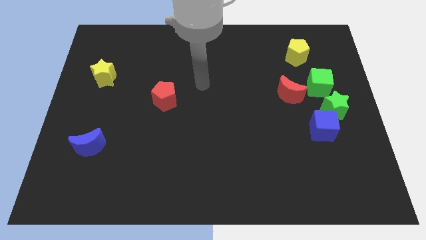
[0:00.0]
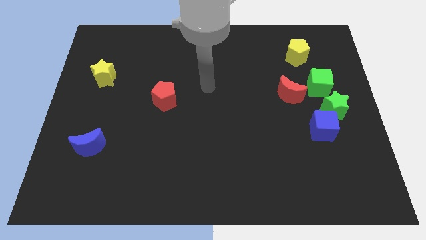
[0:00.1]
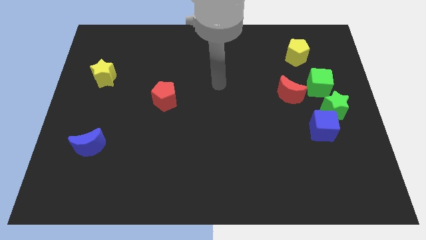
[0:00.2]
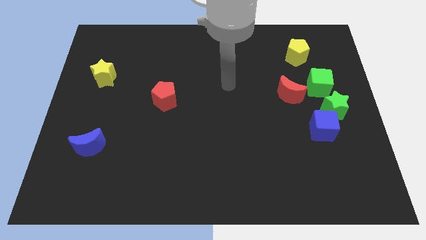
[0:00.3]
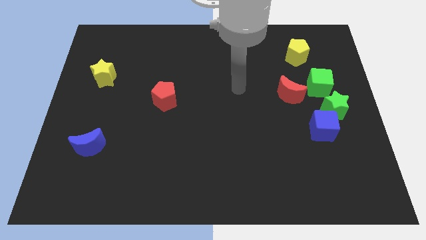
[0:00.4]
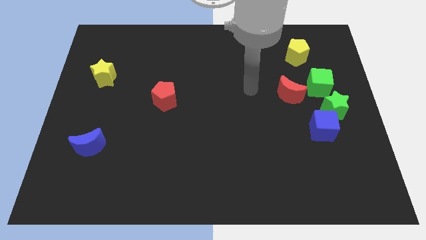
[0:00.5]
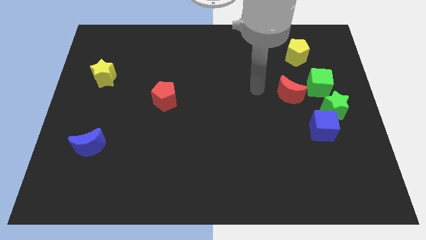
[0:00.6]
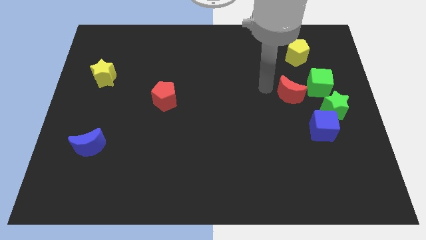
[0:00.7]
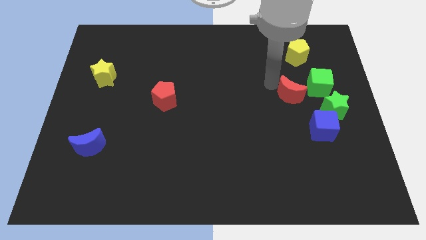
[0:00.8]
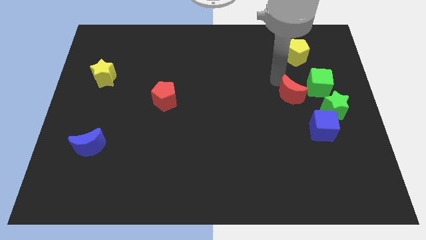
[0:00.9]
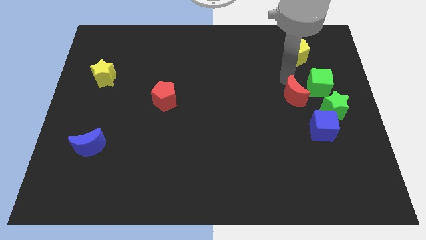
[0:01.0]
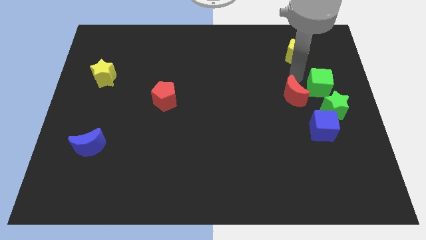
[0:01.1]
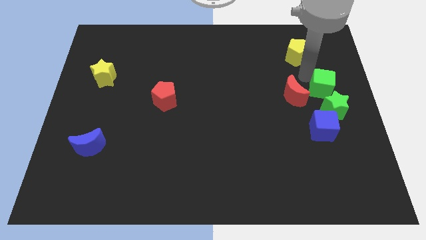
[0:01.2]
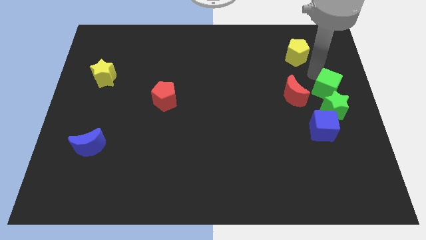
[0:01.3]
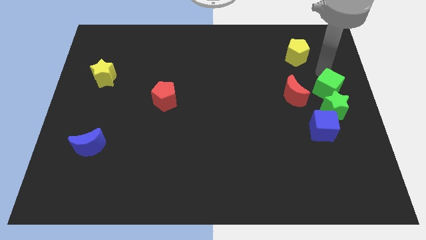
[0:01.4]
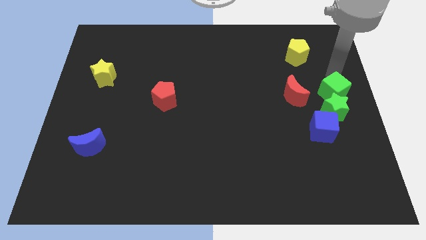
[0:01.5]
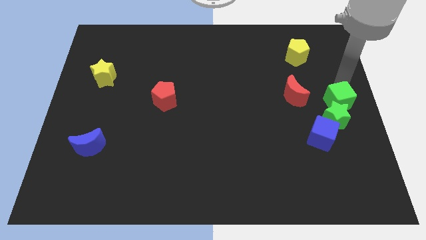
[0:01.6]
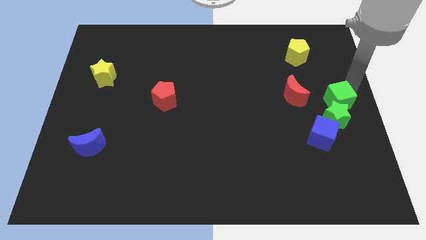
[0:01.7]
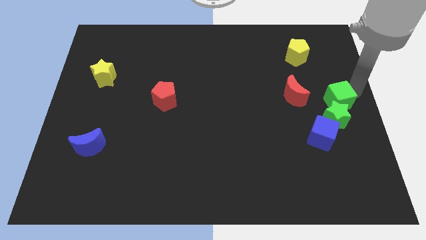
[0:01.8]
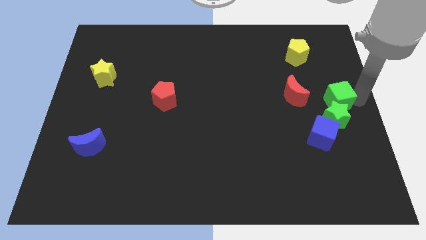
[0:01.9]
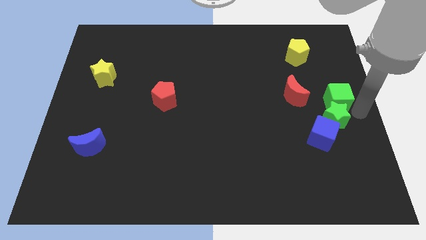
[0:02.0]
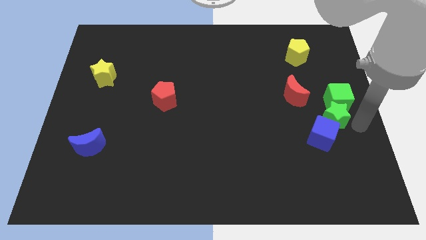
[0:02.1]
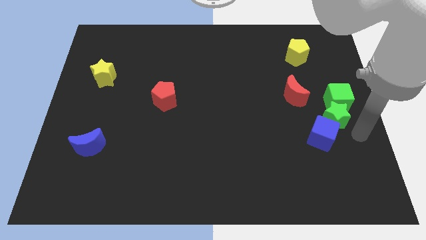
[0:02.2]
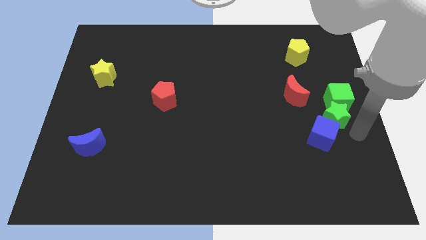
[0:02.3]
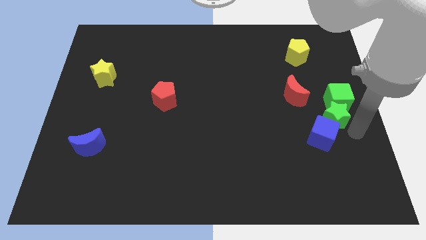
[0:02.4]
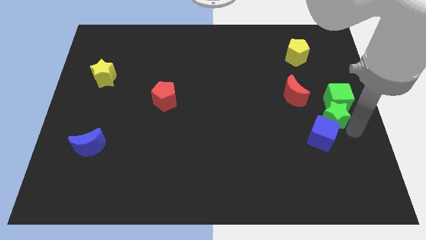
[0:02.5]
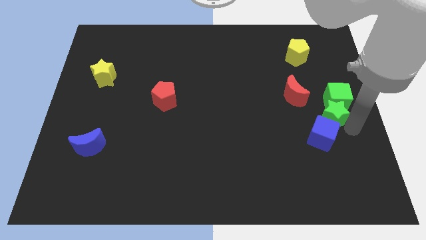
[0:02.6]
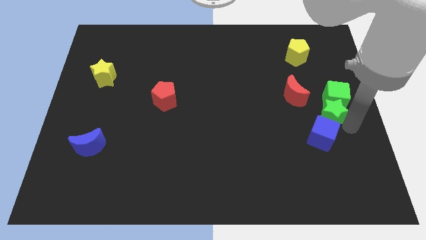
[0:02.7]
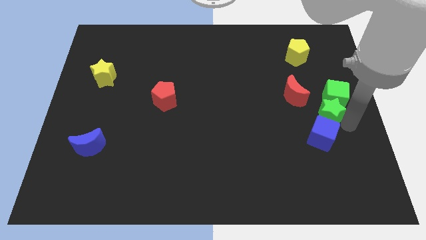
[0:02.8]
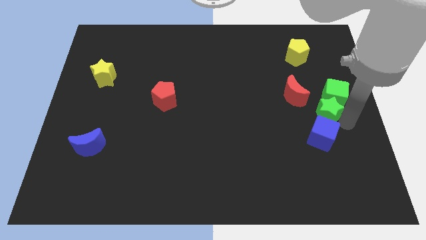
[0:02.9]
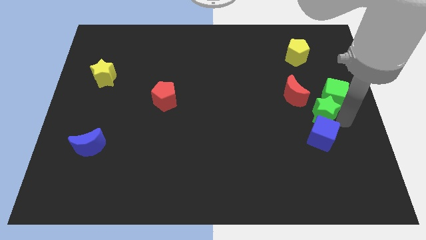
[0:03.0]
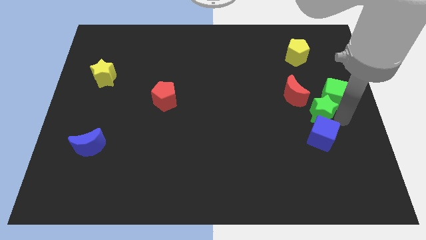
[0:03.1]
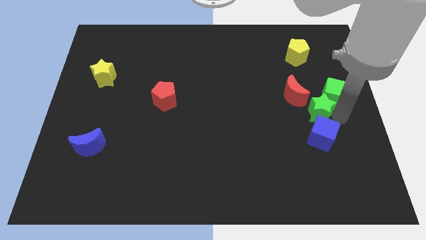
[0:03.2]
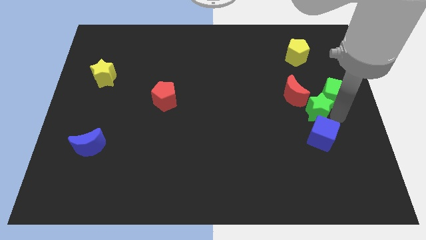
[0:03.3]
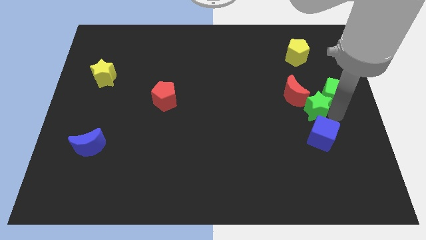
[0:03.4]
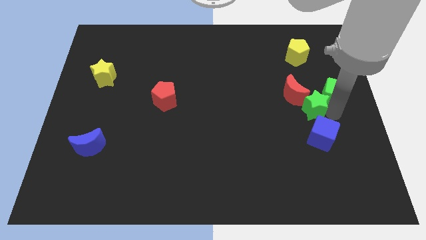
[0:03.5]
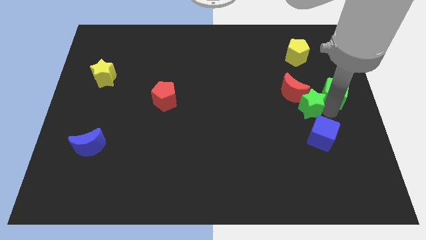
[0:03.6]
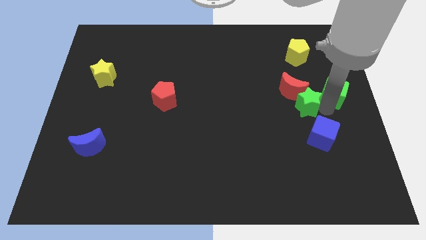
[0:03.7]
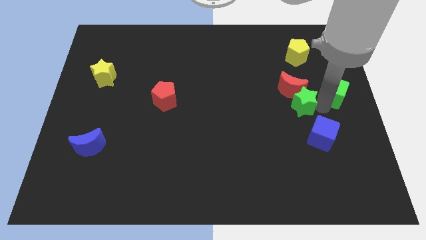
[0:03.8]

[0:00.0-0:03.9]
slightly move the green star left

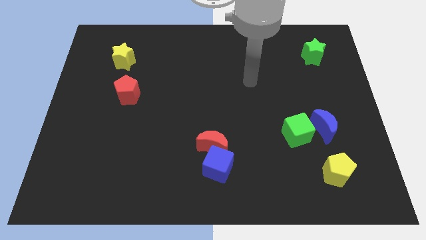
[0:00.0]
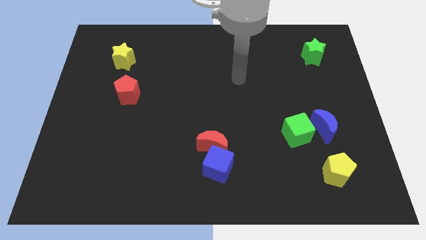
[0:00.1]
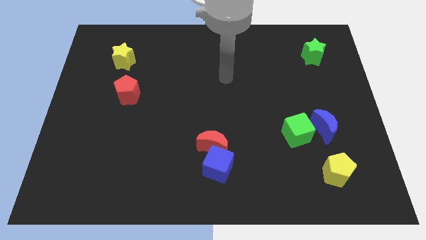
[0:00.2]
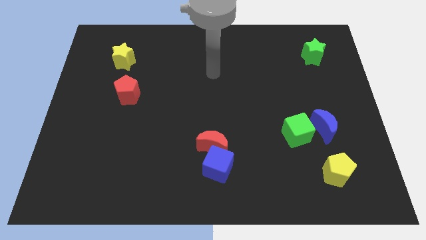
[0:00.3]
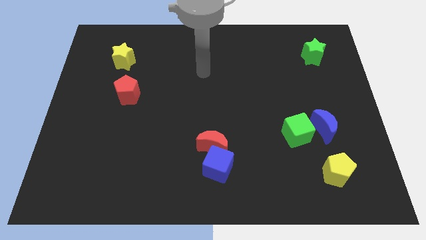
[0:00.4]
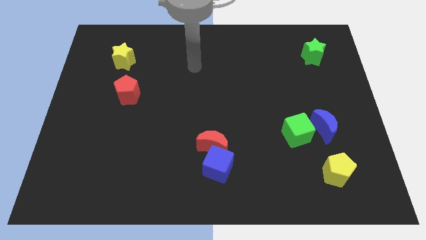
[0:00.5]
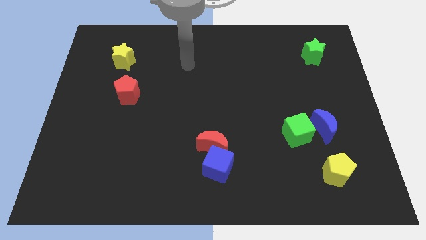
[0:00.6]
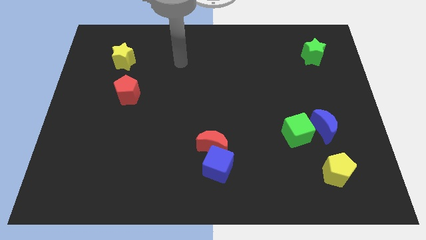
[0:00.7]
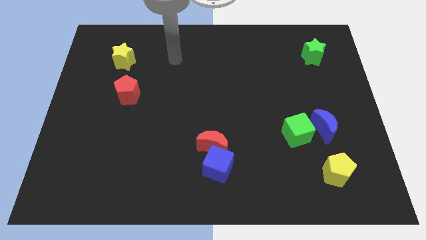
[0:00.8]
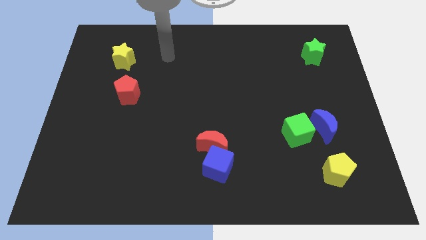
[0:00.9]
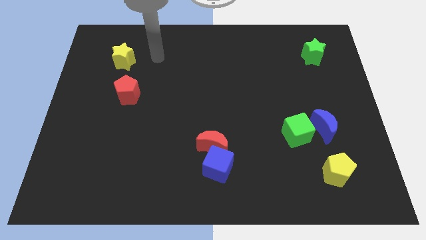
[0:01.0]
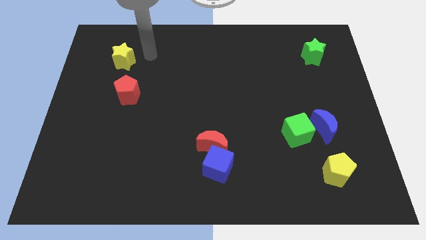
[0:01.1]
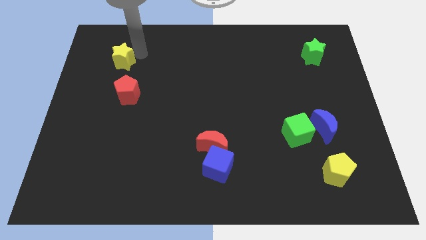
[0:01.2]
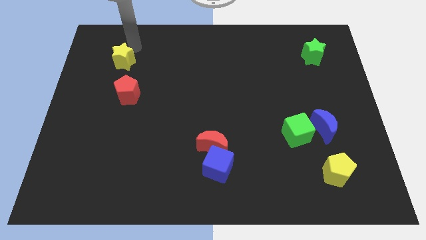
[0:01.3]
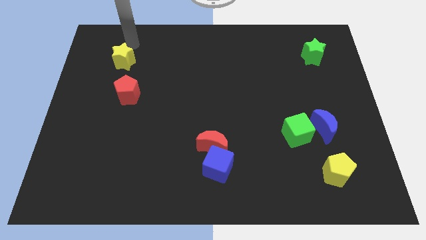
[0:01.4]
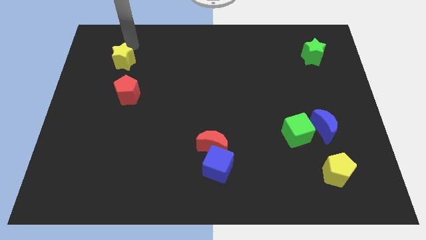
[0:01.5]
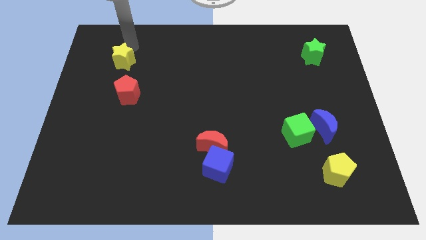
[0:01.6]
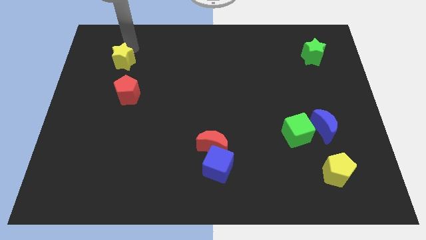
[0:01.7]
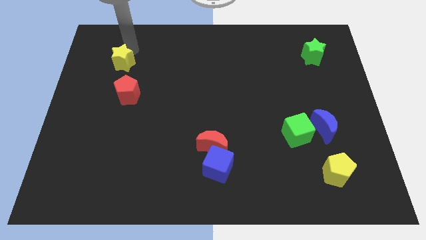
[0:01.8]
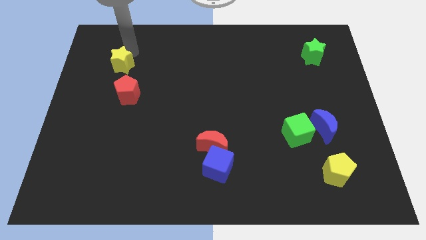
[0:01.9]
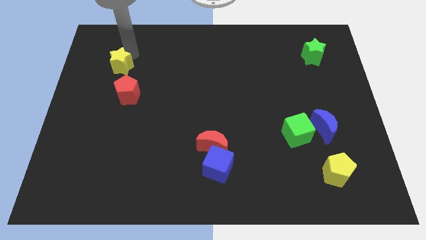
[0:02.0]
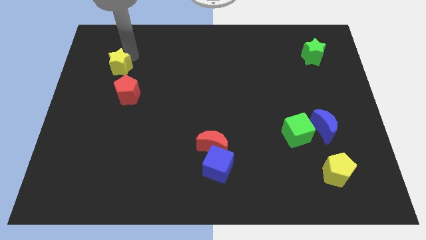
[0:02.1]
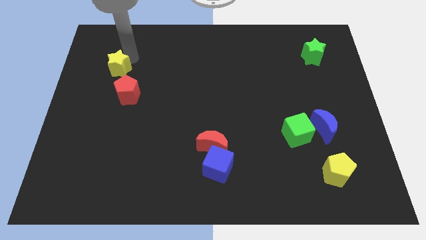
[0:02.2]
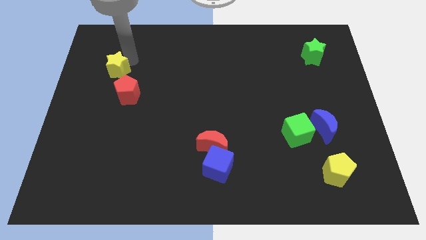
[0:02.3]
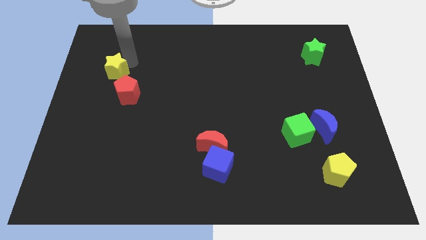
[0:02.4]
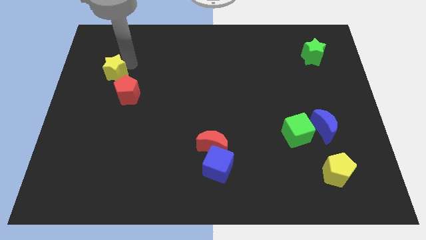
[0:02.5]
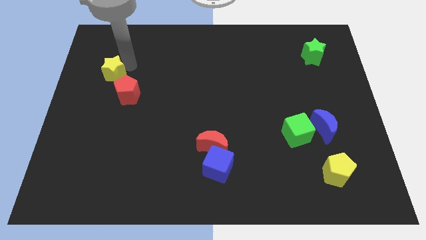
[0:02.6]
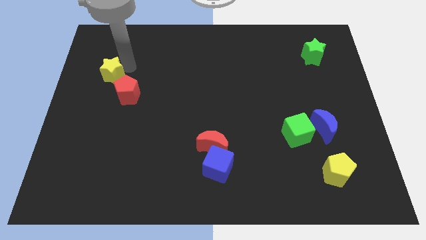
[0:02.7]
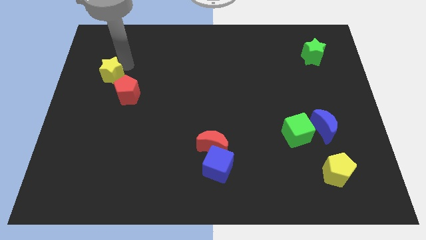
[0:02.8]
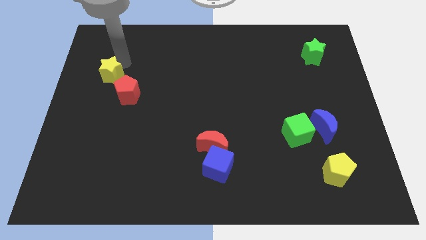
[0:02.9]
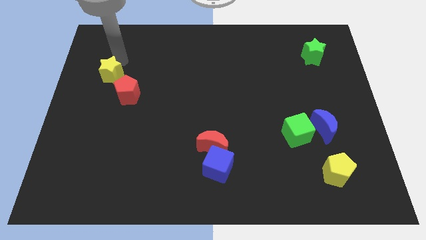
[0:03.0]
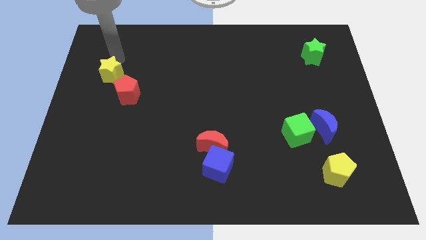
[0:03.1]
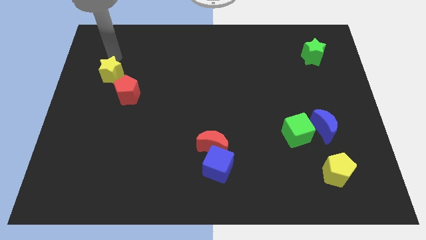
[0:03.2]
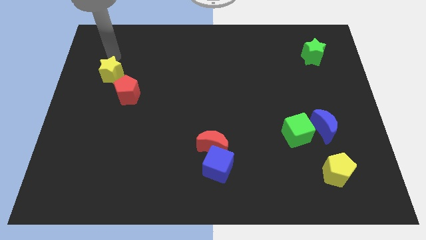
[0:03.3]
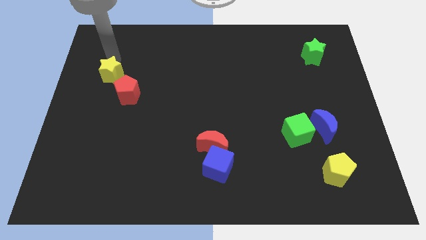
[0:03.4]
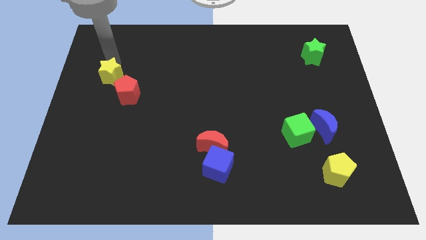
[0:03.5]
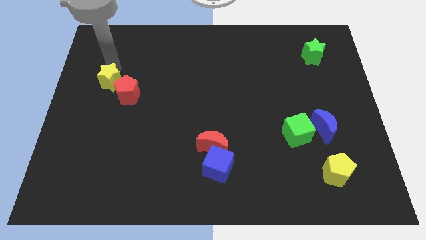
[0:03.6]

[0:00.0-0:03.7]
push the yellow star downwards a little

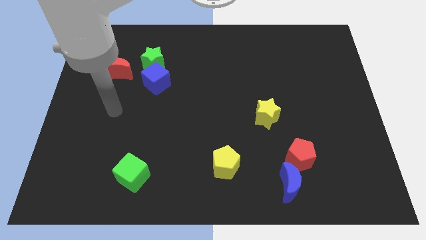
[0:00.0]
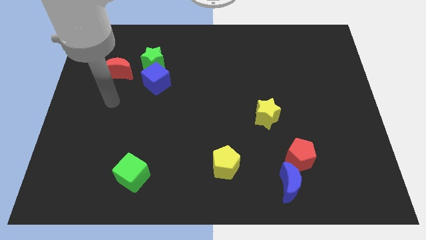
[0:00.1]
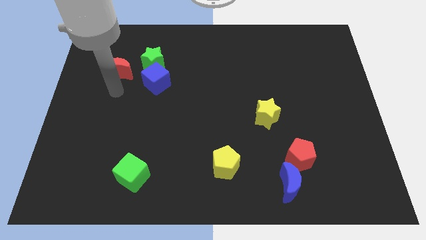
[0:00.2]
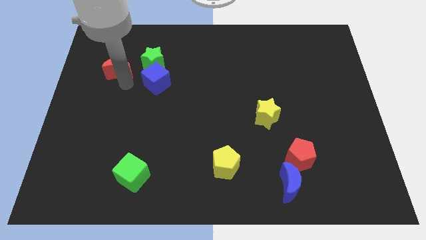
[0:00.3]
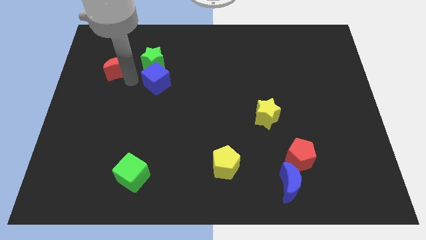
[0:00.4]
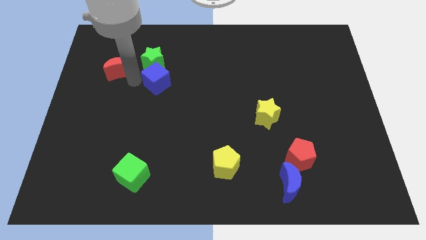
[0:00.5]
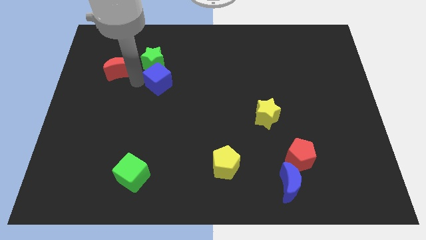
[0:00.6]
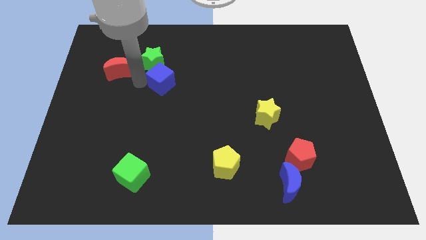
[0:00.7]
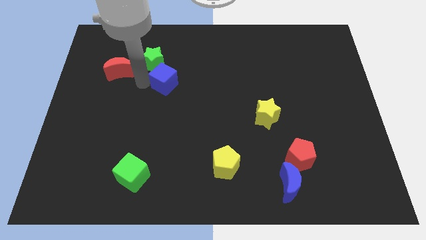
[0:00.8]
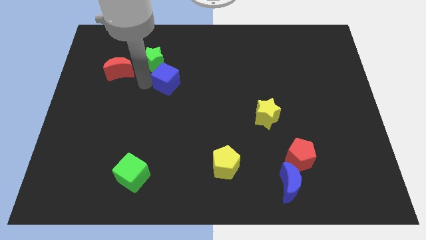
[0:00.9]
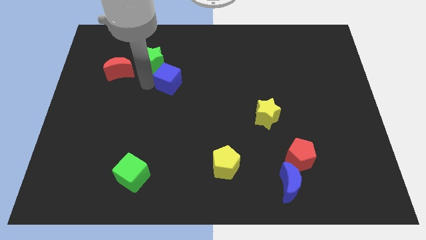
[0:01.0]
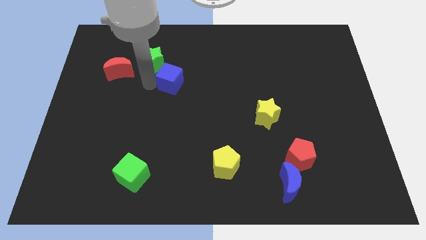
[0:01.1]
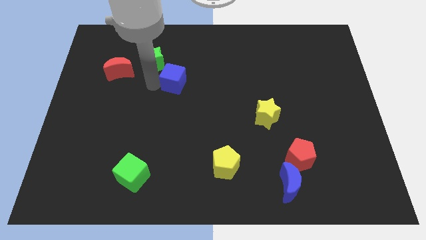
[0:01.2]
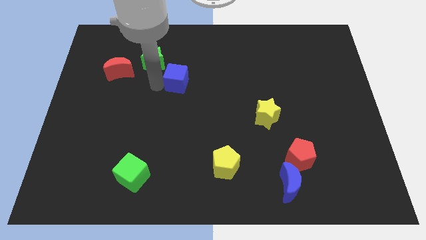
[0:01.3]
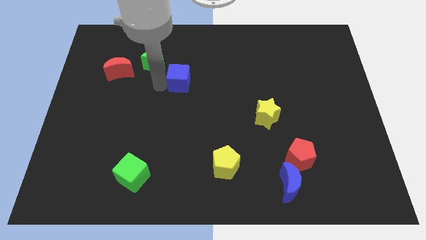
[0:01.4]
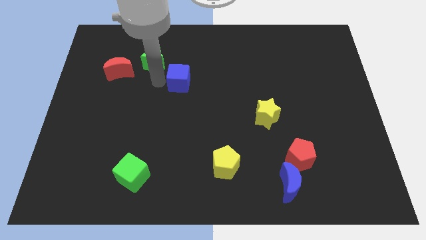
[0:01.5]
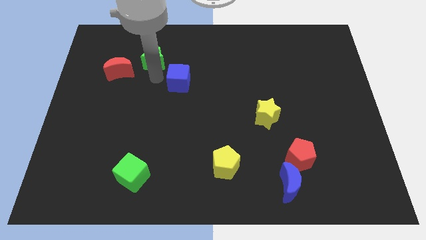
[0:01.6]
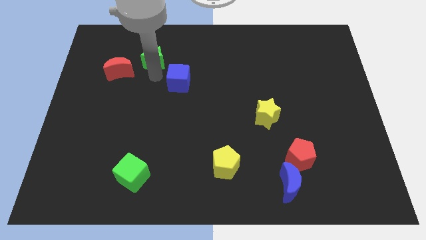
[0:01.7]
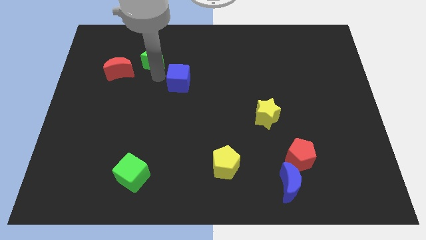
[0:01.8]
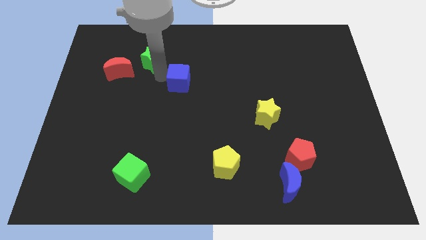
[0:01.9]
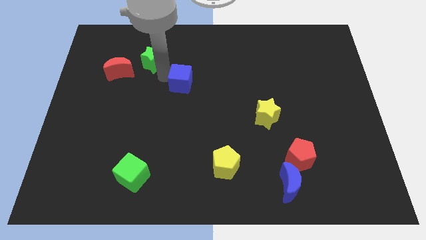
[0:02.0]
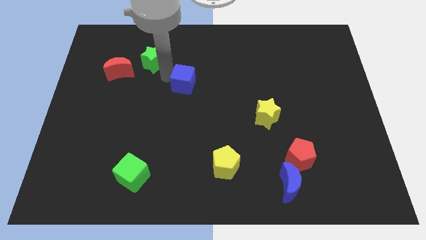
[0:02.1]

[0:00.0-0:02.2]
move the blue cube to the right a bit
